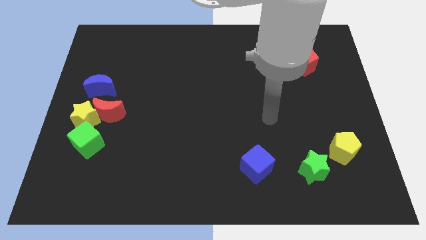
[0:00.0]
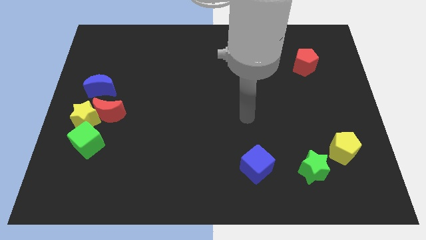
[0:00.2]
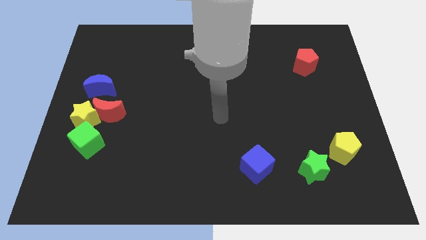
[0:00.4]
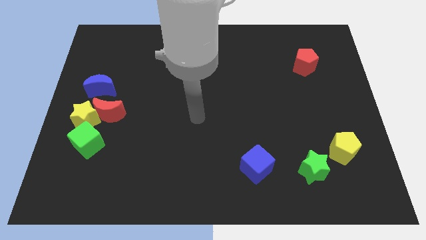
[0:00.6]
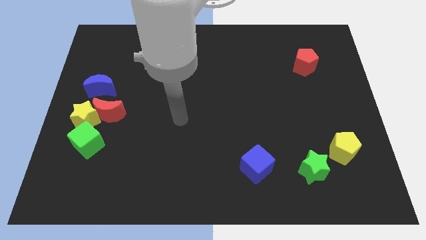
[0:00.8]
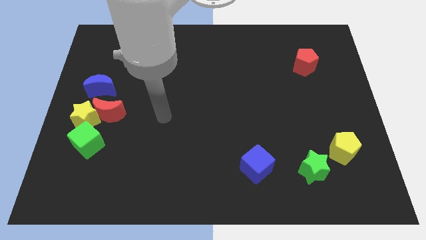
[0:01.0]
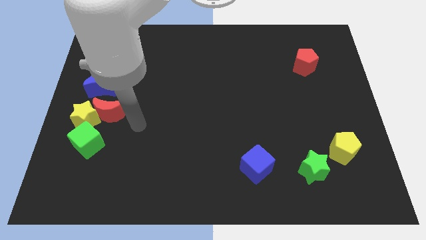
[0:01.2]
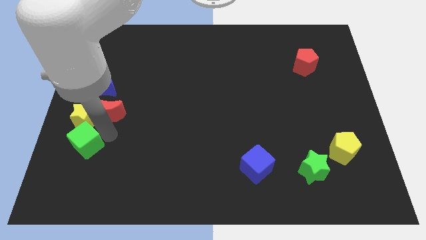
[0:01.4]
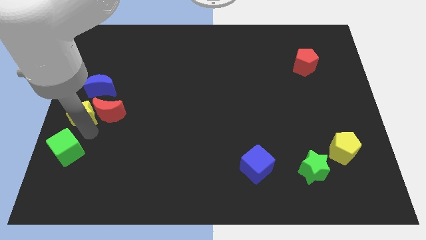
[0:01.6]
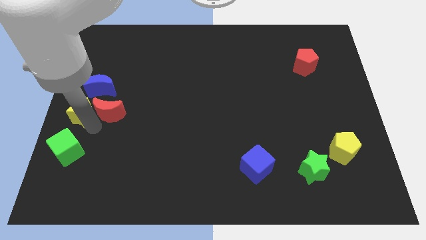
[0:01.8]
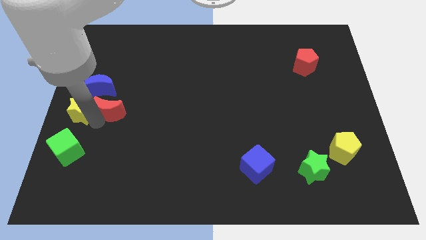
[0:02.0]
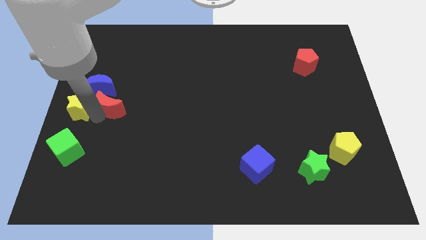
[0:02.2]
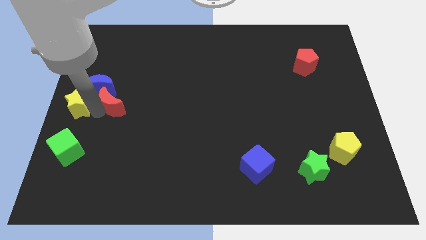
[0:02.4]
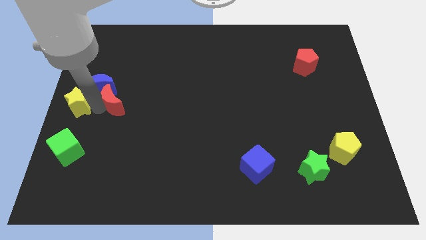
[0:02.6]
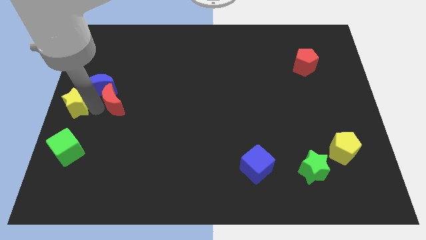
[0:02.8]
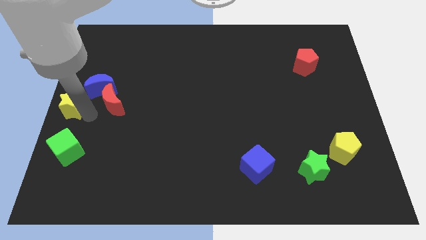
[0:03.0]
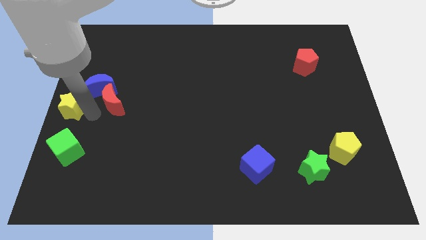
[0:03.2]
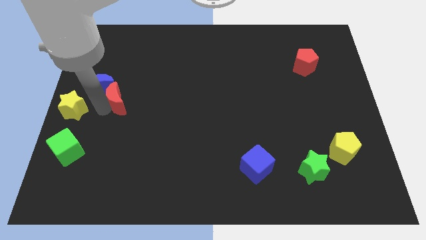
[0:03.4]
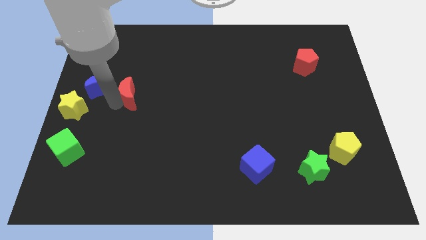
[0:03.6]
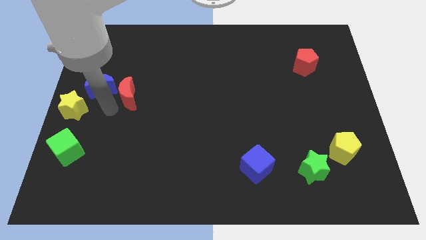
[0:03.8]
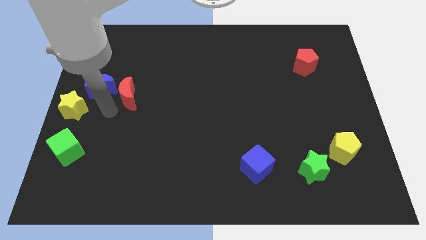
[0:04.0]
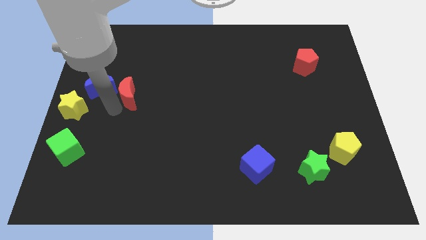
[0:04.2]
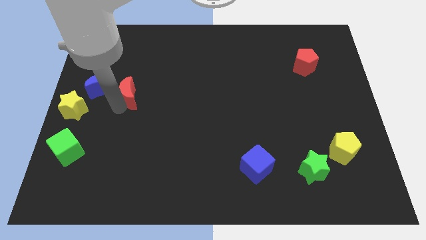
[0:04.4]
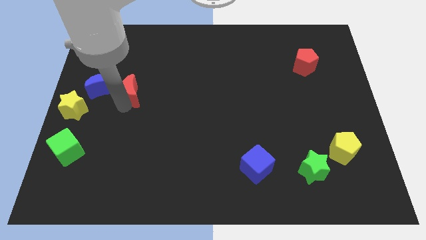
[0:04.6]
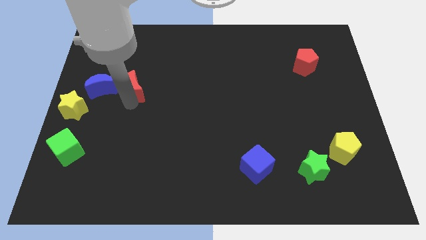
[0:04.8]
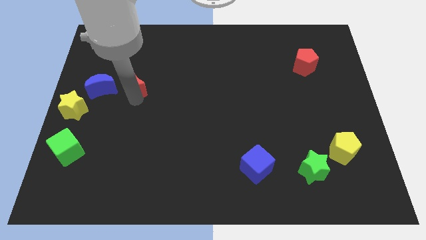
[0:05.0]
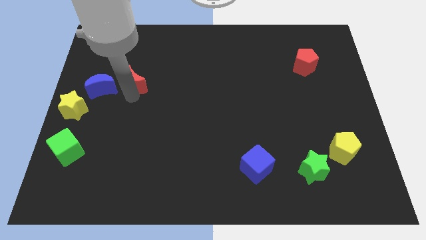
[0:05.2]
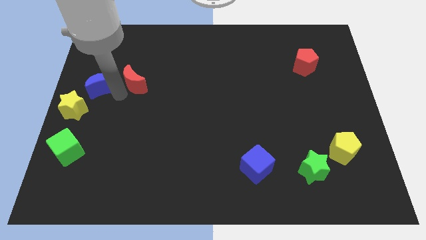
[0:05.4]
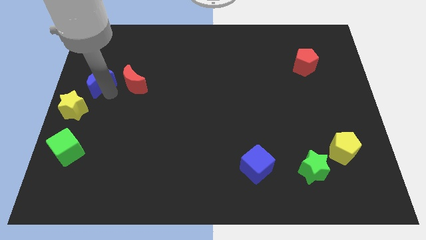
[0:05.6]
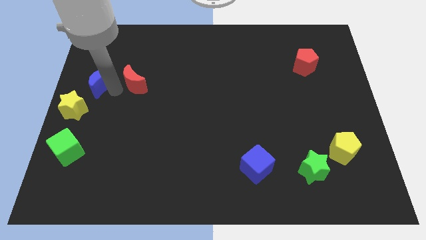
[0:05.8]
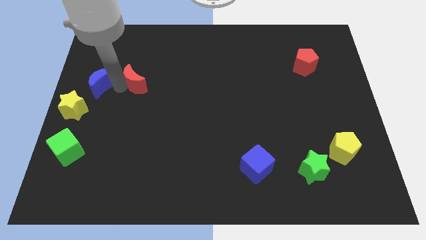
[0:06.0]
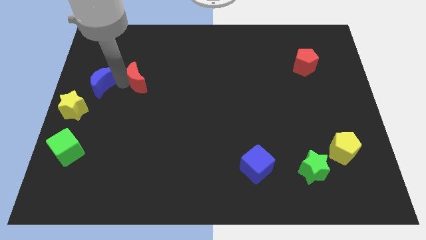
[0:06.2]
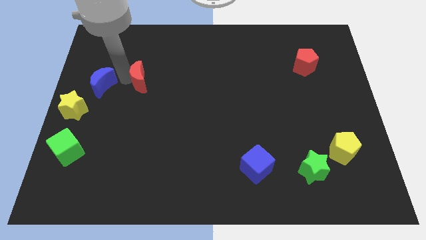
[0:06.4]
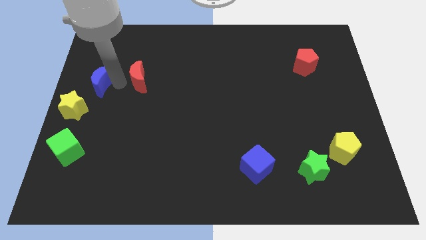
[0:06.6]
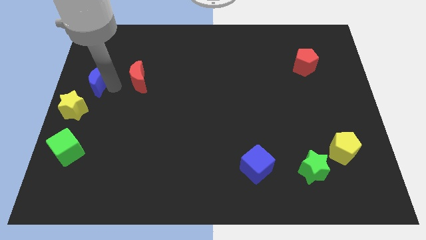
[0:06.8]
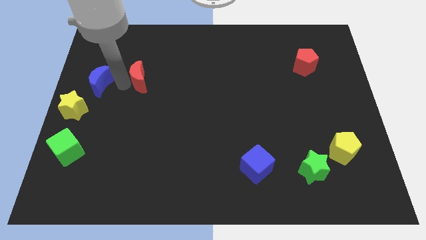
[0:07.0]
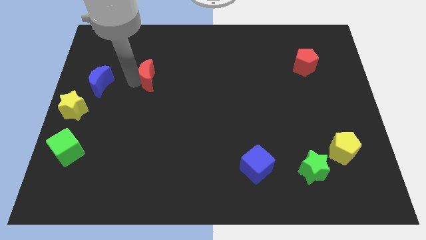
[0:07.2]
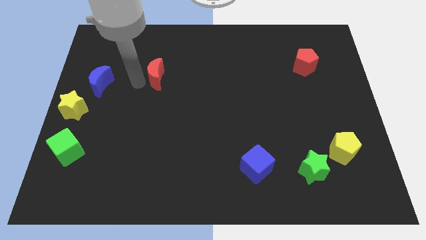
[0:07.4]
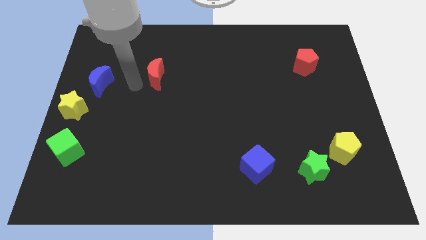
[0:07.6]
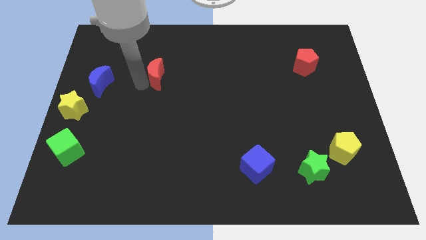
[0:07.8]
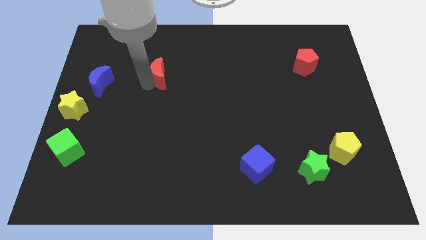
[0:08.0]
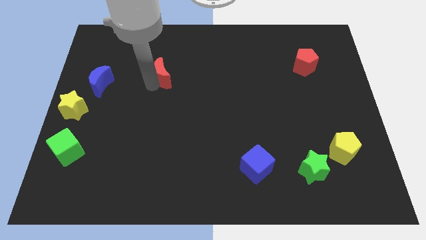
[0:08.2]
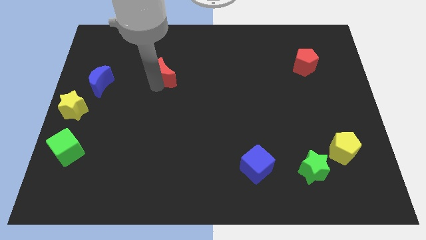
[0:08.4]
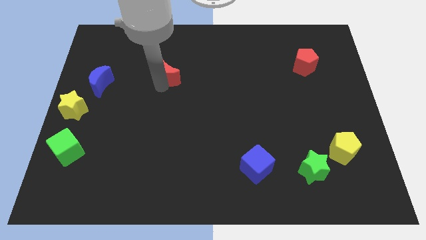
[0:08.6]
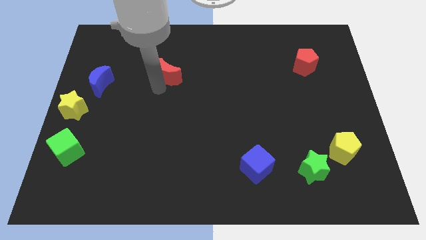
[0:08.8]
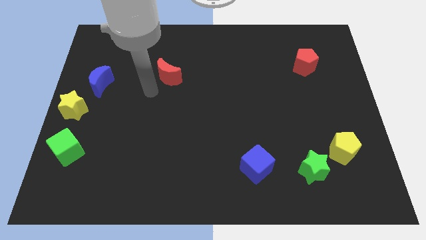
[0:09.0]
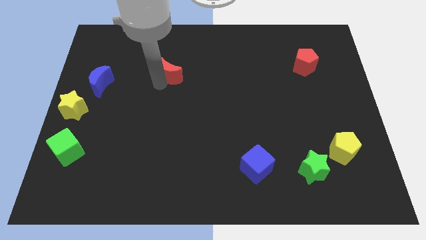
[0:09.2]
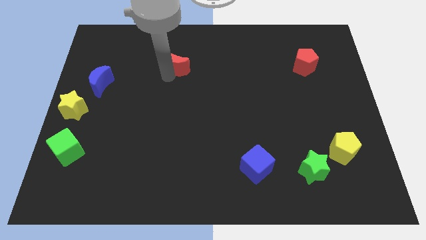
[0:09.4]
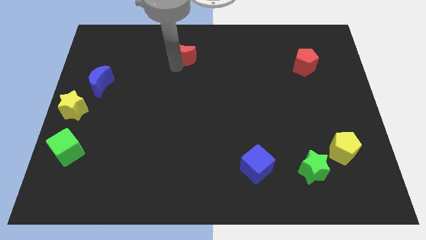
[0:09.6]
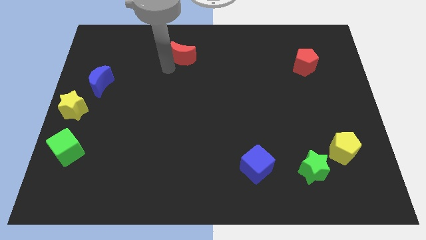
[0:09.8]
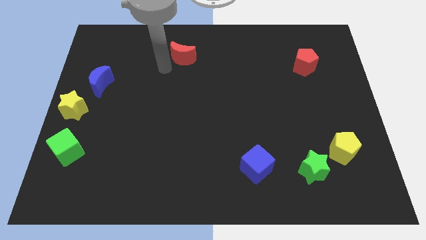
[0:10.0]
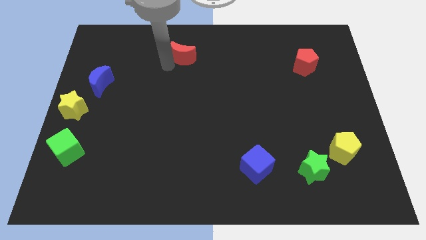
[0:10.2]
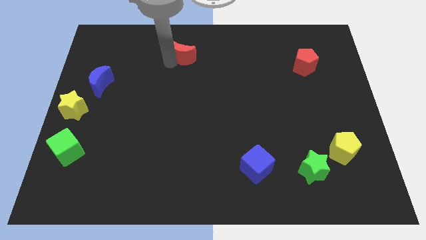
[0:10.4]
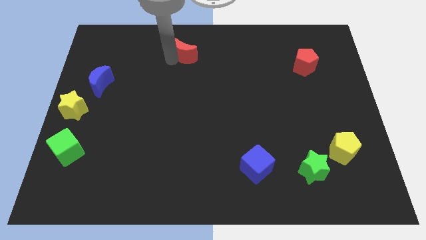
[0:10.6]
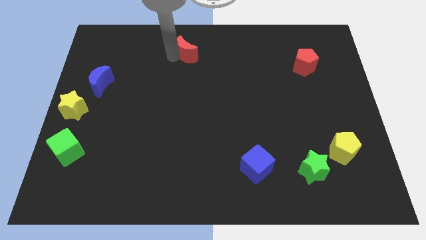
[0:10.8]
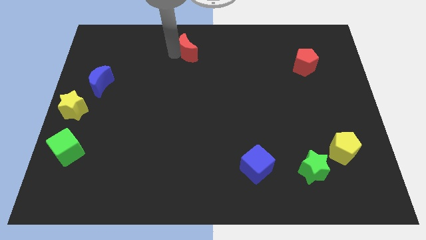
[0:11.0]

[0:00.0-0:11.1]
put the red moon to the top side

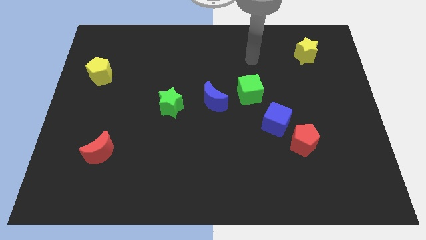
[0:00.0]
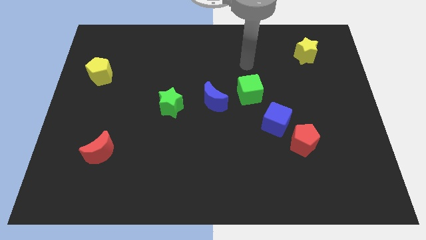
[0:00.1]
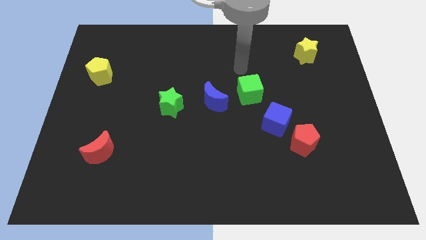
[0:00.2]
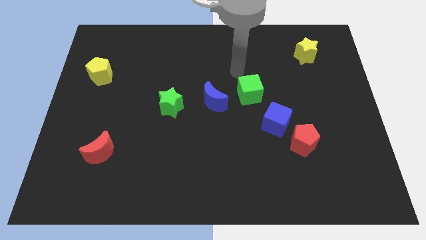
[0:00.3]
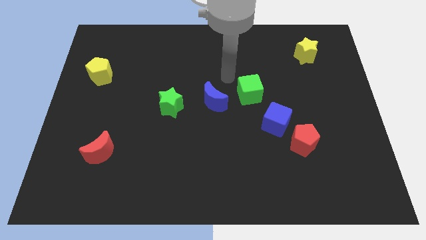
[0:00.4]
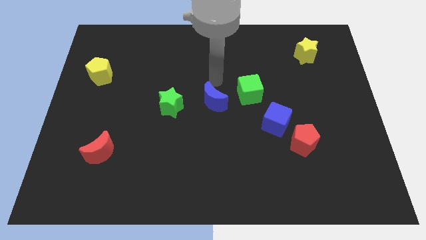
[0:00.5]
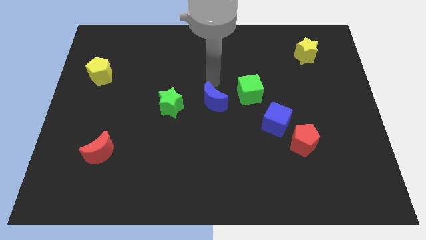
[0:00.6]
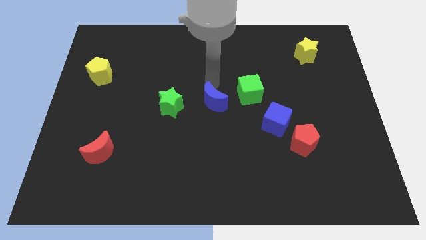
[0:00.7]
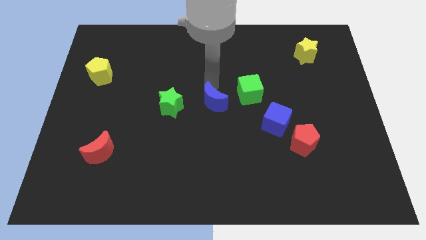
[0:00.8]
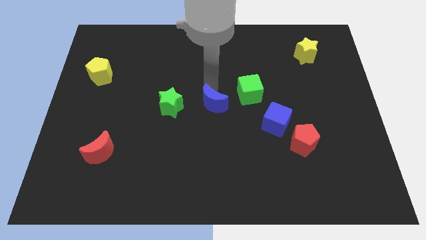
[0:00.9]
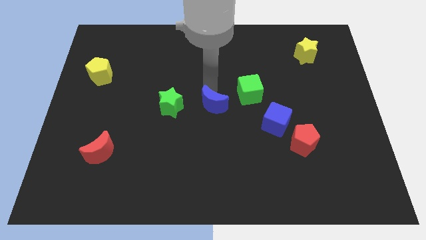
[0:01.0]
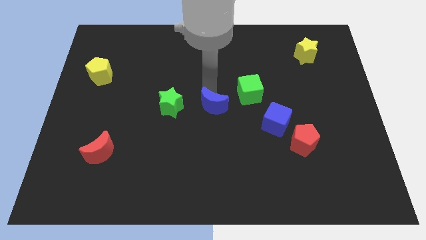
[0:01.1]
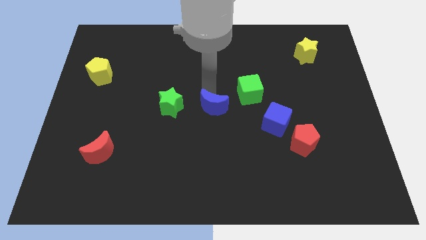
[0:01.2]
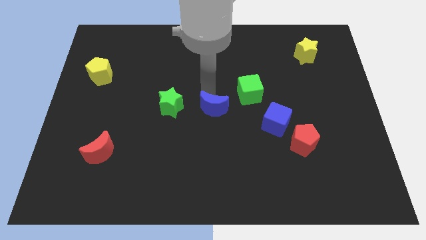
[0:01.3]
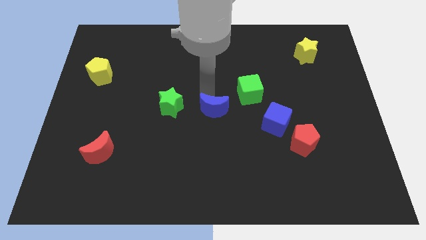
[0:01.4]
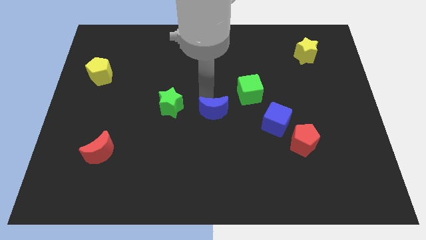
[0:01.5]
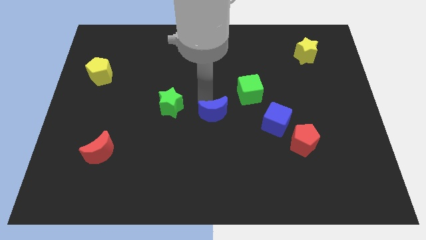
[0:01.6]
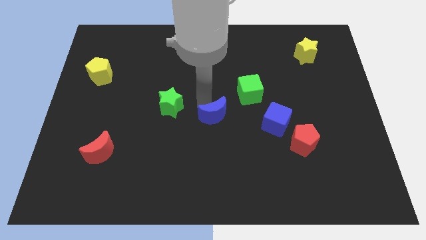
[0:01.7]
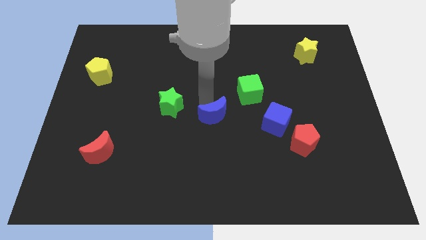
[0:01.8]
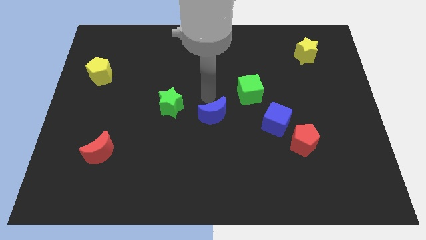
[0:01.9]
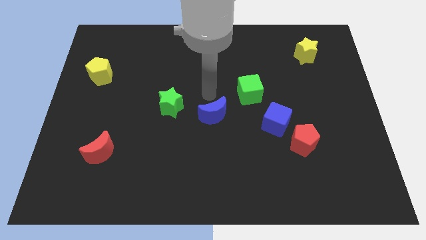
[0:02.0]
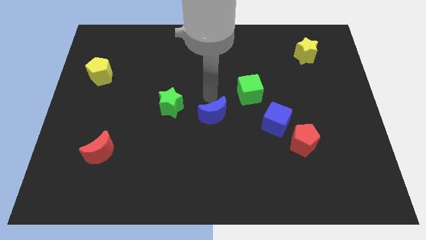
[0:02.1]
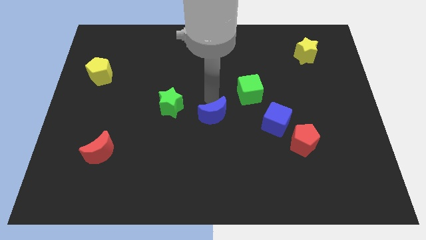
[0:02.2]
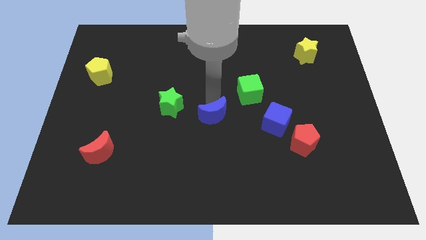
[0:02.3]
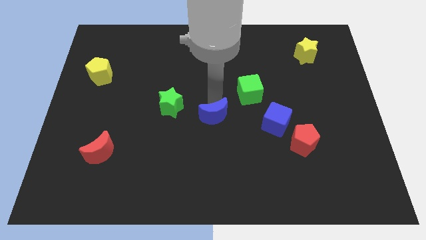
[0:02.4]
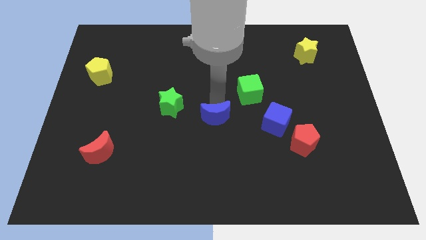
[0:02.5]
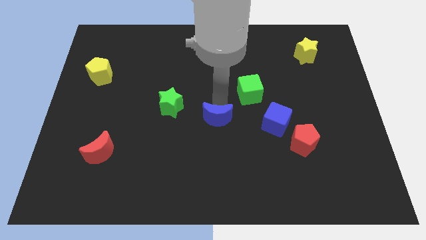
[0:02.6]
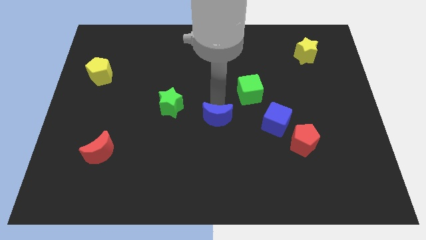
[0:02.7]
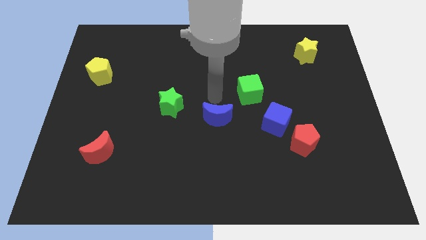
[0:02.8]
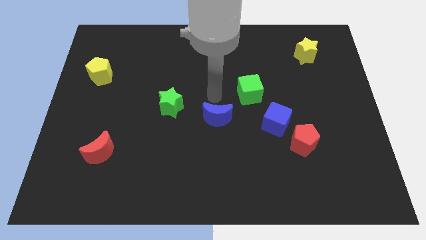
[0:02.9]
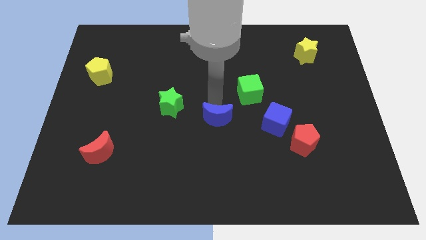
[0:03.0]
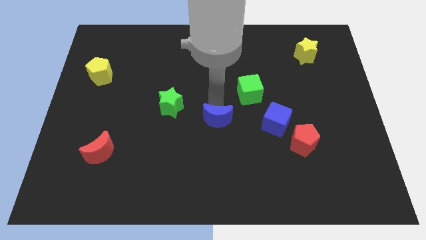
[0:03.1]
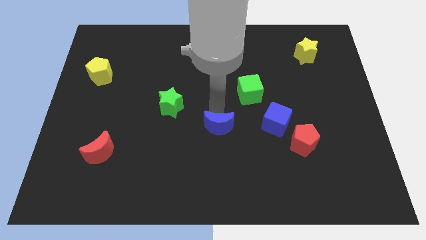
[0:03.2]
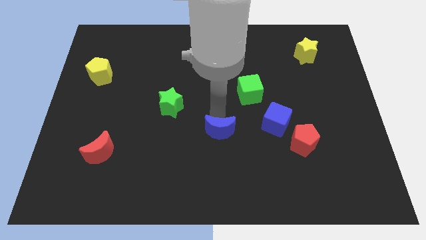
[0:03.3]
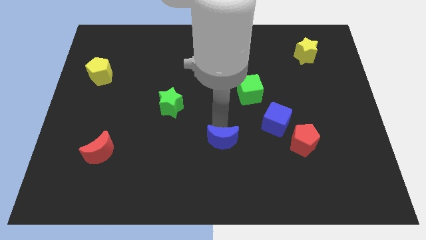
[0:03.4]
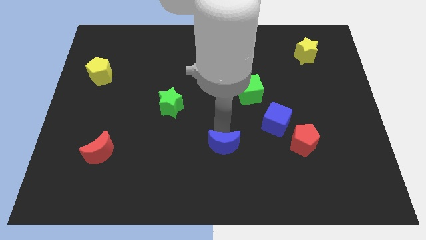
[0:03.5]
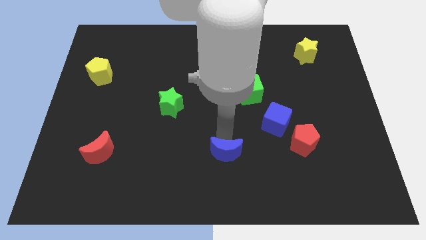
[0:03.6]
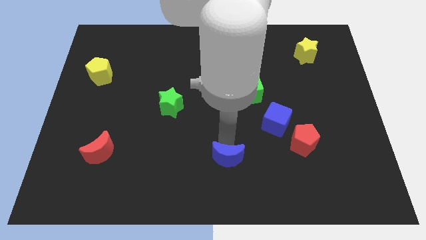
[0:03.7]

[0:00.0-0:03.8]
push the blue moon to the bottom
